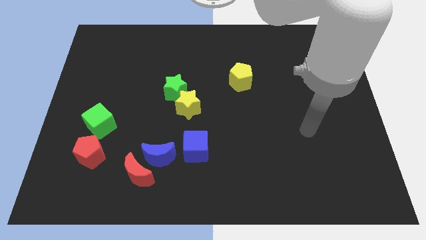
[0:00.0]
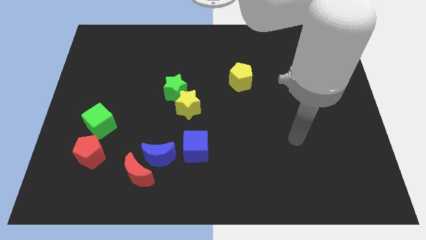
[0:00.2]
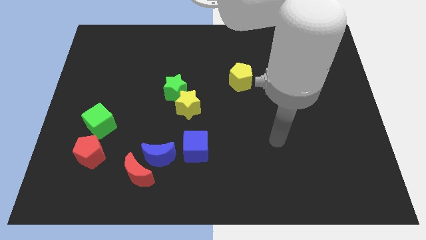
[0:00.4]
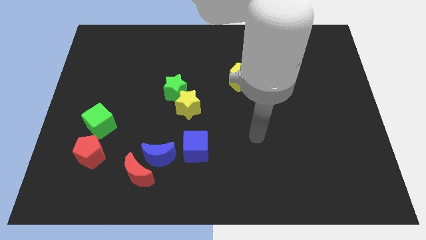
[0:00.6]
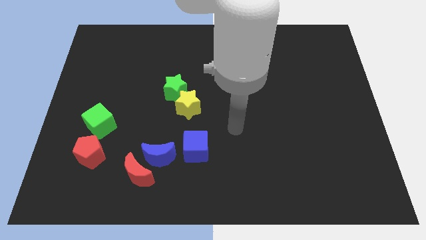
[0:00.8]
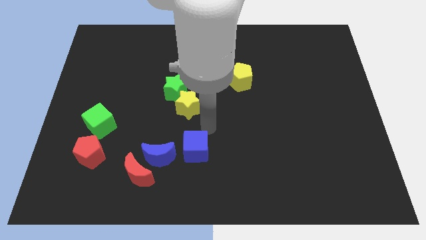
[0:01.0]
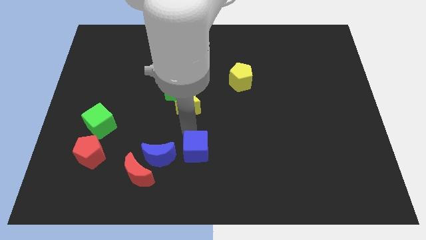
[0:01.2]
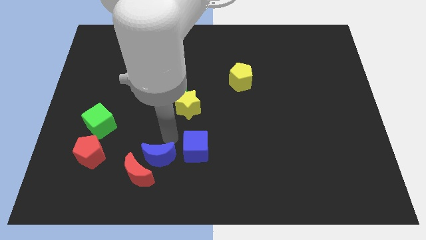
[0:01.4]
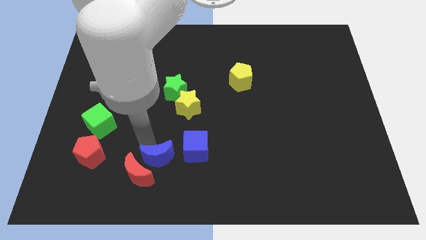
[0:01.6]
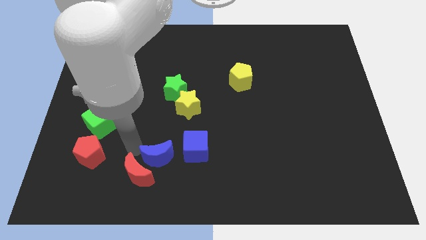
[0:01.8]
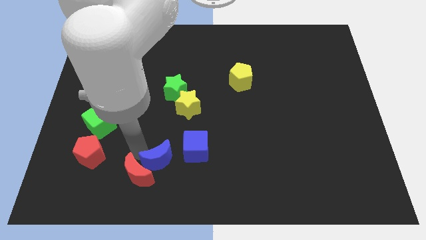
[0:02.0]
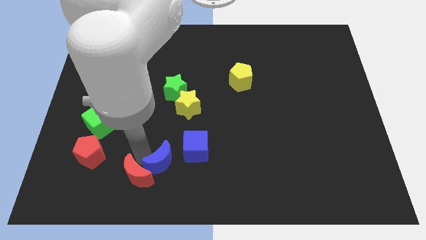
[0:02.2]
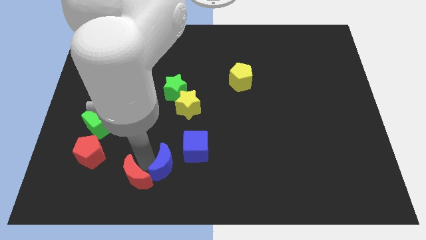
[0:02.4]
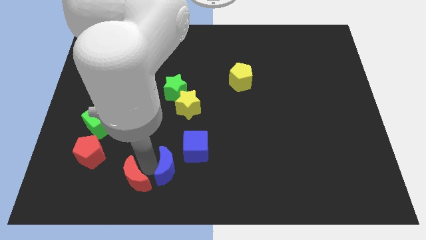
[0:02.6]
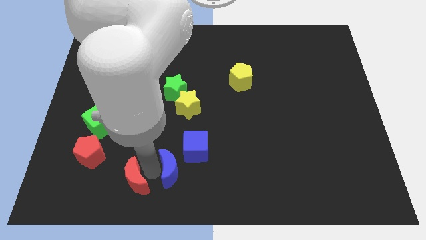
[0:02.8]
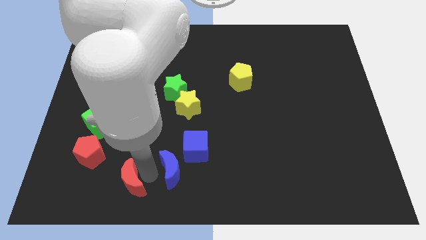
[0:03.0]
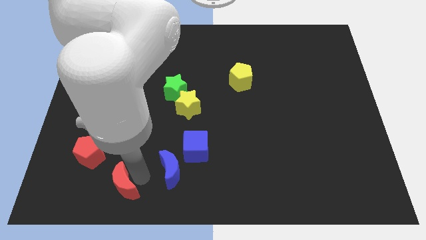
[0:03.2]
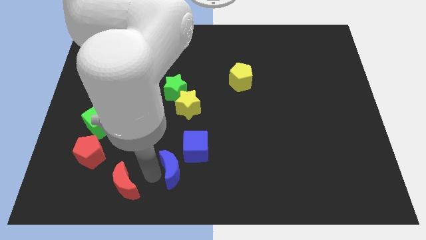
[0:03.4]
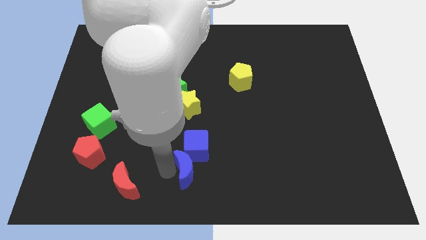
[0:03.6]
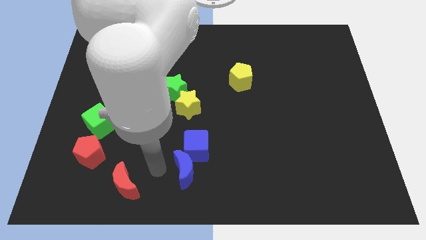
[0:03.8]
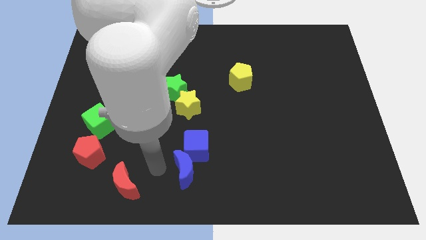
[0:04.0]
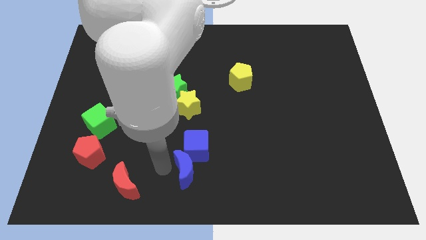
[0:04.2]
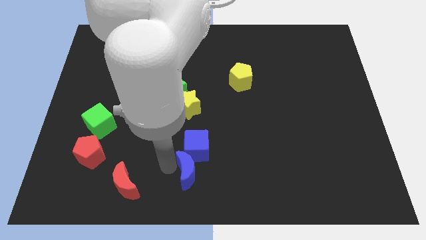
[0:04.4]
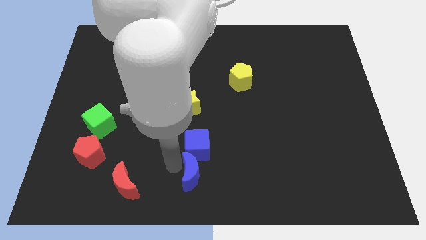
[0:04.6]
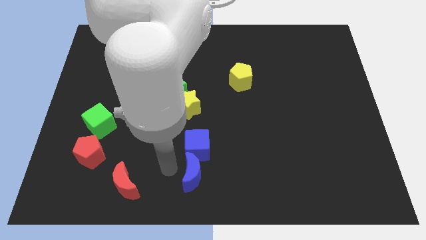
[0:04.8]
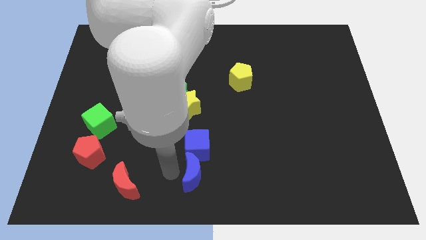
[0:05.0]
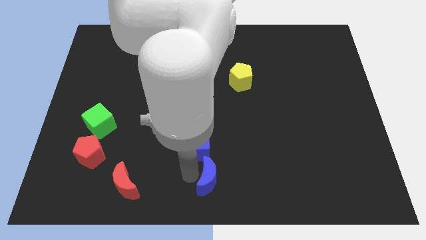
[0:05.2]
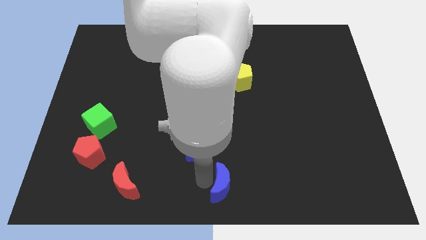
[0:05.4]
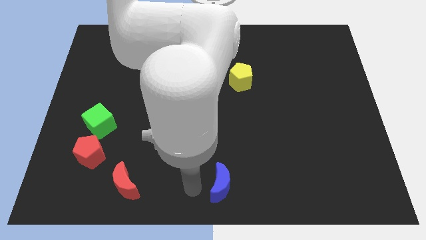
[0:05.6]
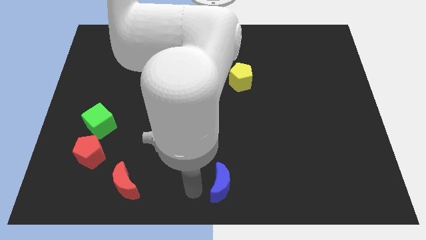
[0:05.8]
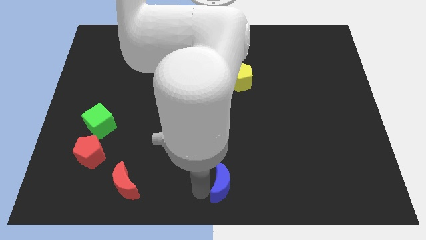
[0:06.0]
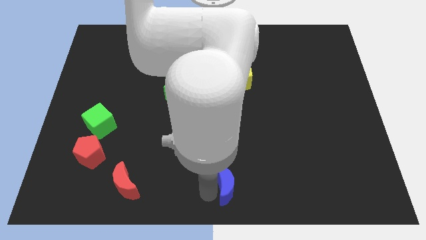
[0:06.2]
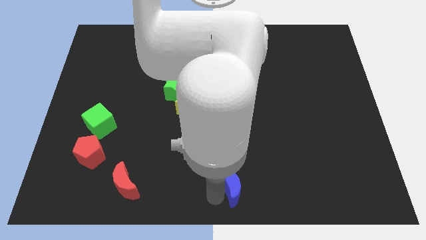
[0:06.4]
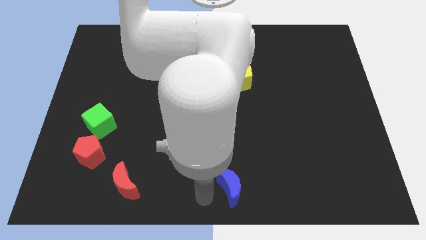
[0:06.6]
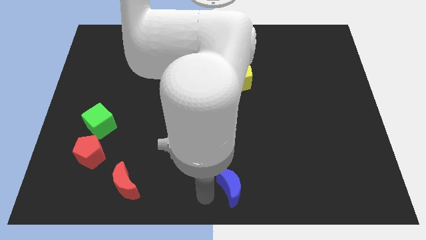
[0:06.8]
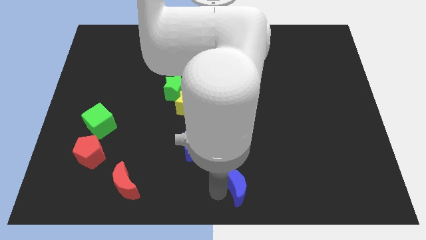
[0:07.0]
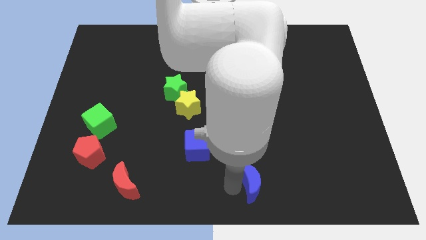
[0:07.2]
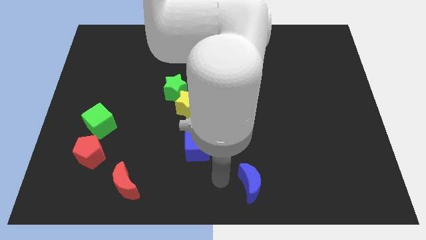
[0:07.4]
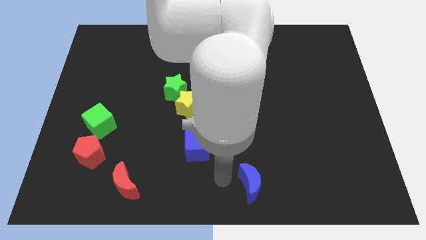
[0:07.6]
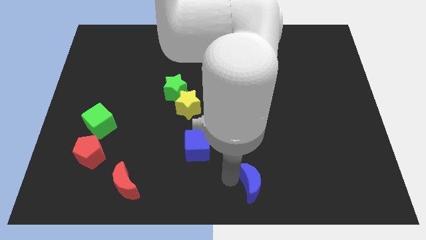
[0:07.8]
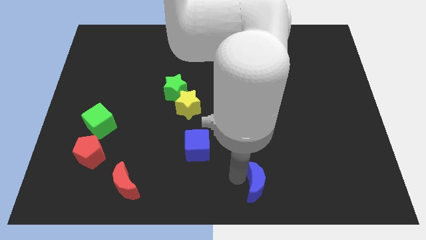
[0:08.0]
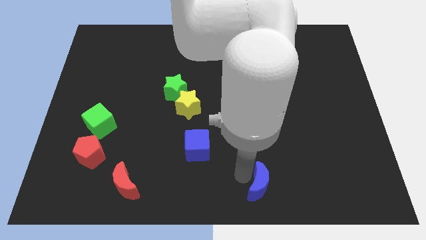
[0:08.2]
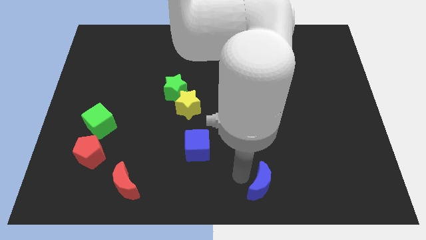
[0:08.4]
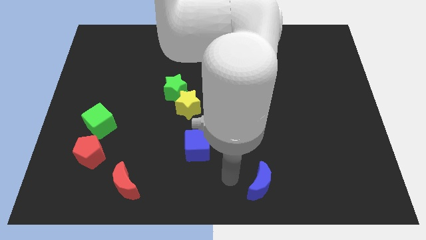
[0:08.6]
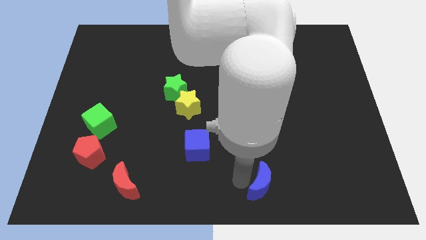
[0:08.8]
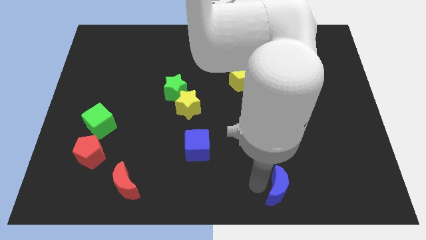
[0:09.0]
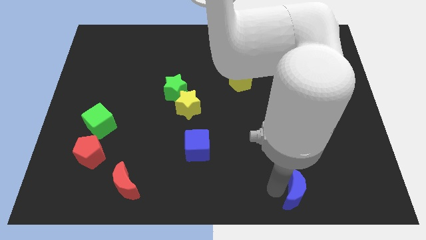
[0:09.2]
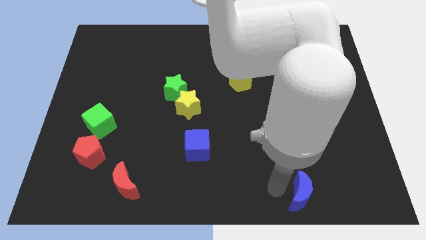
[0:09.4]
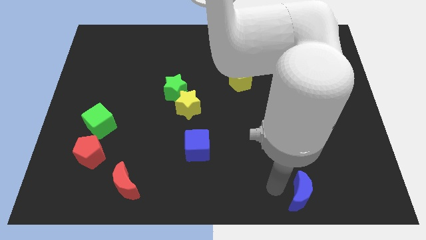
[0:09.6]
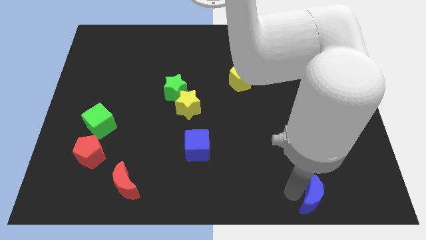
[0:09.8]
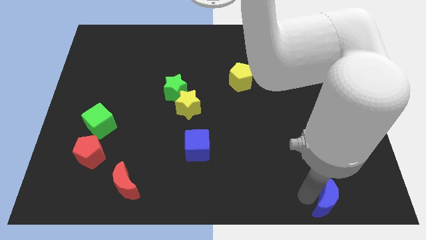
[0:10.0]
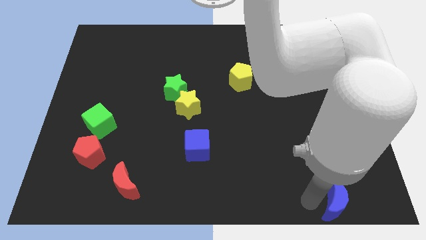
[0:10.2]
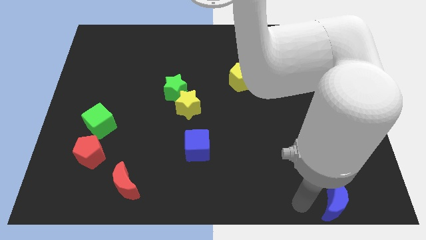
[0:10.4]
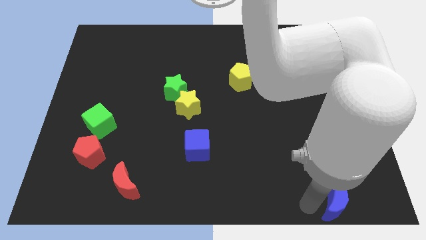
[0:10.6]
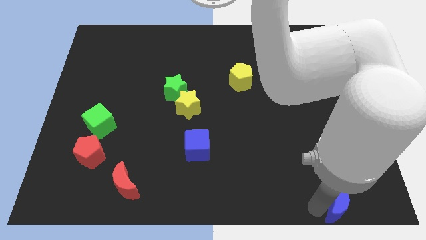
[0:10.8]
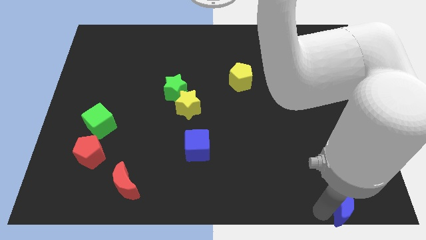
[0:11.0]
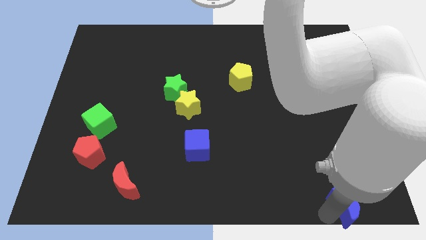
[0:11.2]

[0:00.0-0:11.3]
push the blue moon to the bottom right

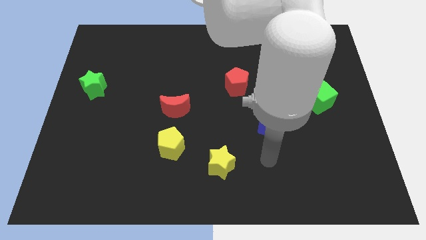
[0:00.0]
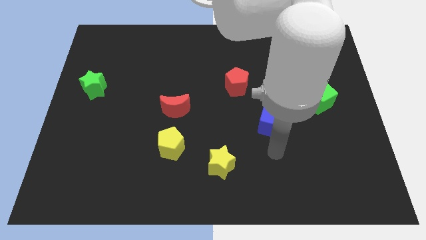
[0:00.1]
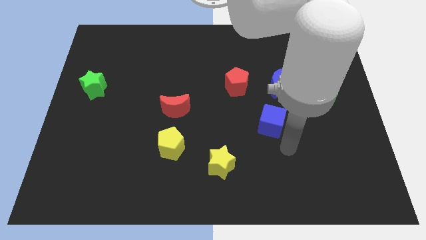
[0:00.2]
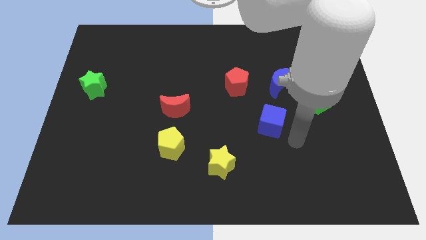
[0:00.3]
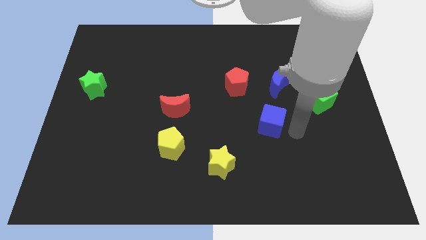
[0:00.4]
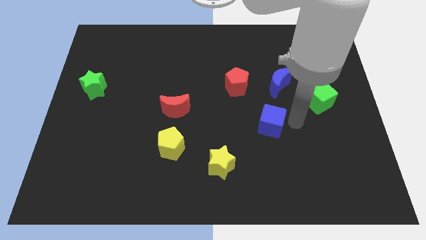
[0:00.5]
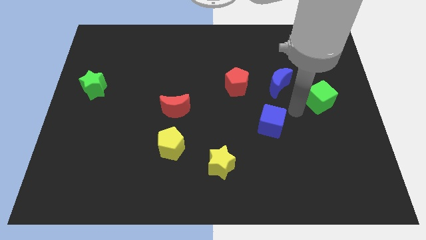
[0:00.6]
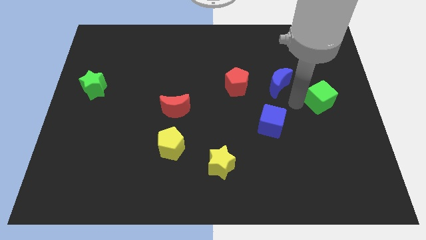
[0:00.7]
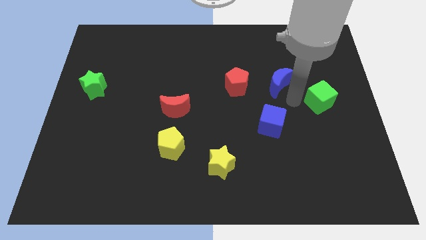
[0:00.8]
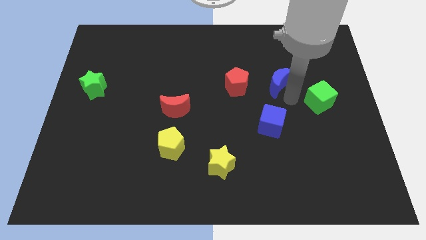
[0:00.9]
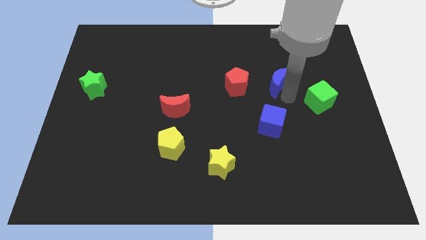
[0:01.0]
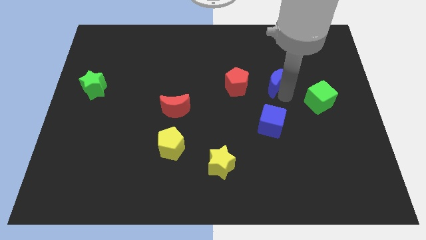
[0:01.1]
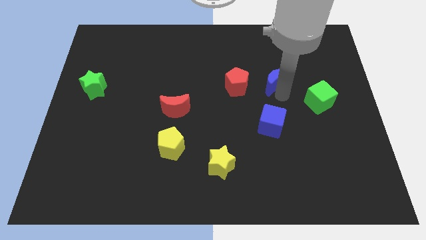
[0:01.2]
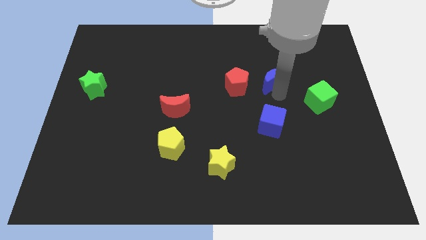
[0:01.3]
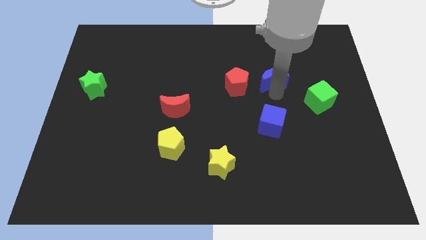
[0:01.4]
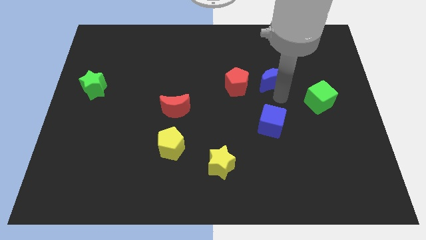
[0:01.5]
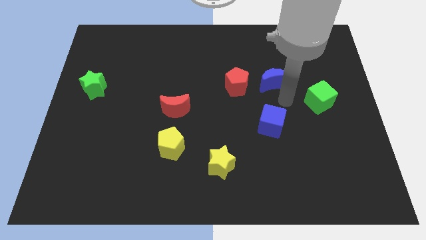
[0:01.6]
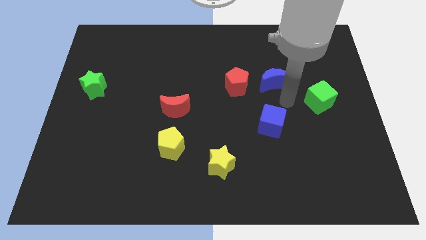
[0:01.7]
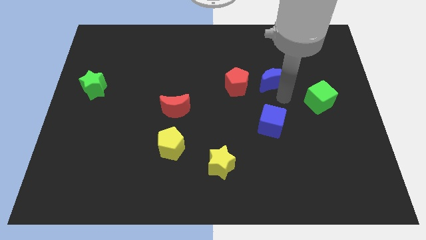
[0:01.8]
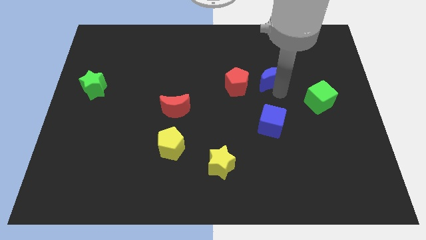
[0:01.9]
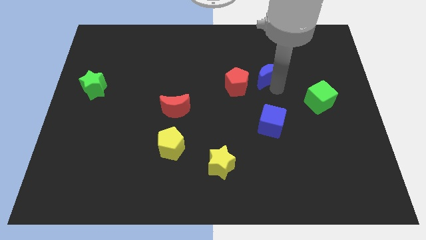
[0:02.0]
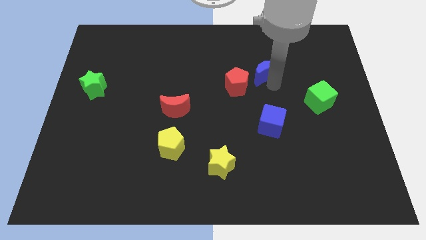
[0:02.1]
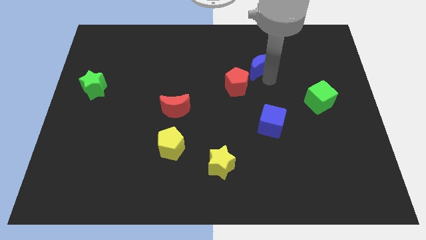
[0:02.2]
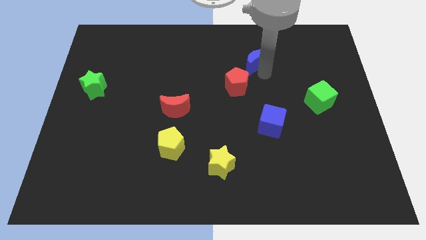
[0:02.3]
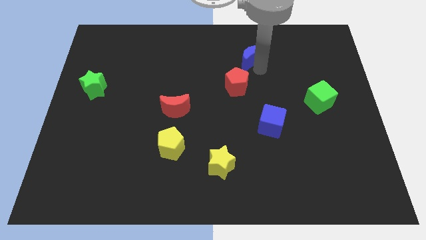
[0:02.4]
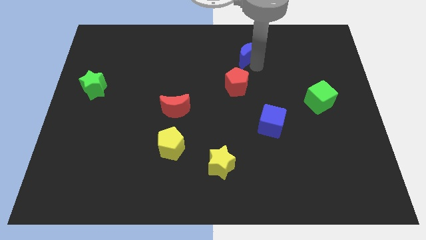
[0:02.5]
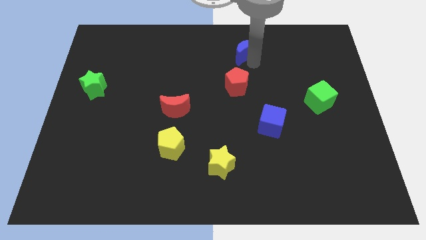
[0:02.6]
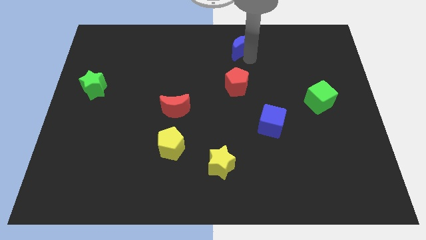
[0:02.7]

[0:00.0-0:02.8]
push the blue moon to the top
